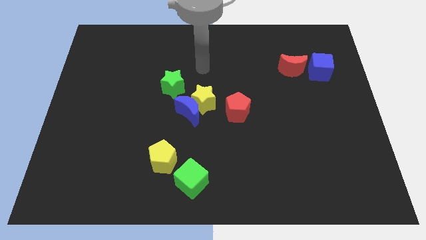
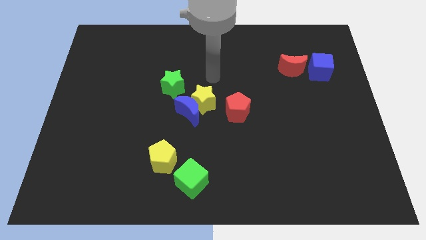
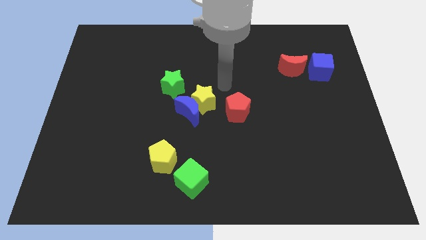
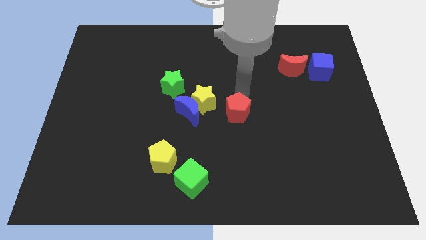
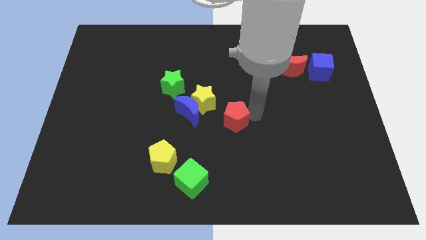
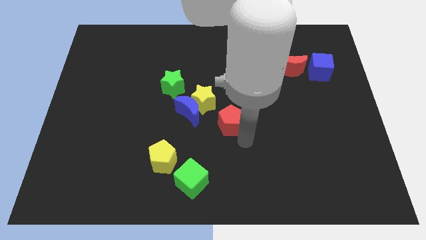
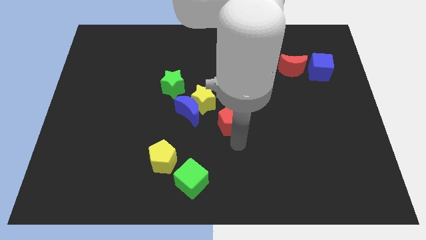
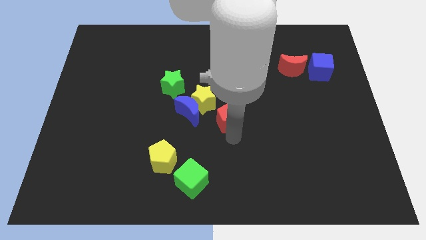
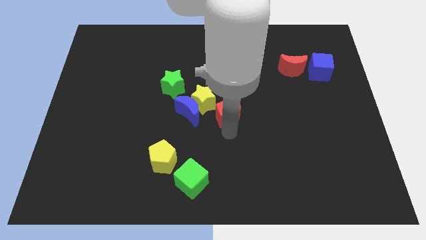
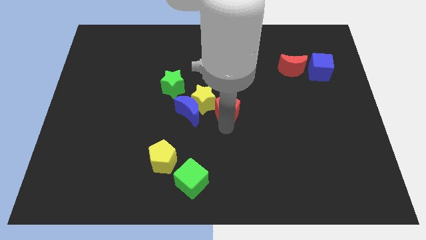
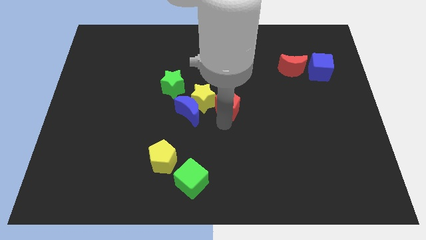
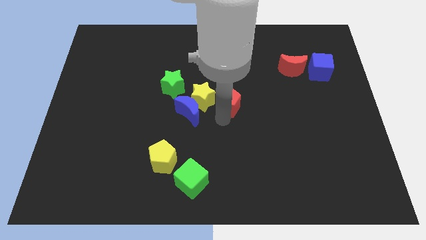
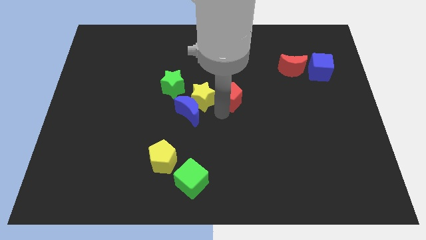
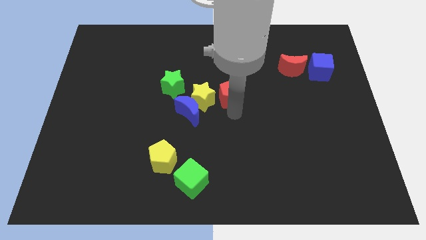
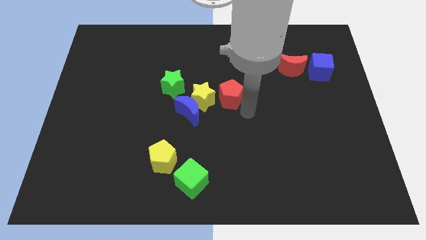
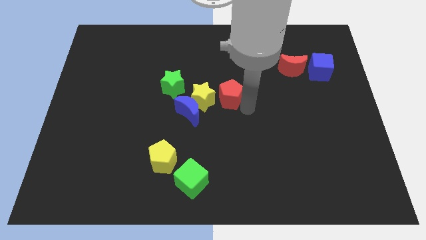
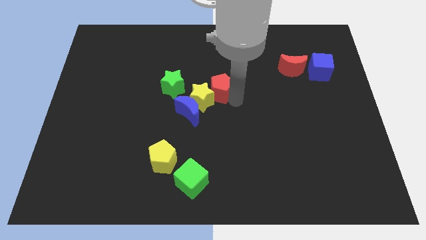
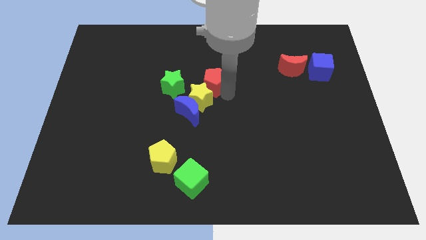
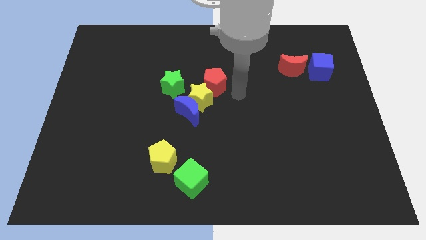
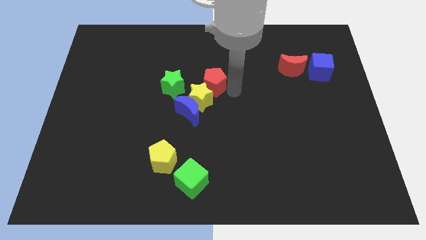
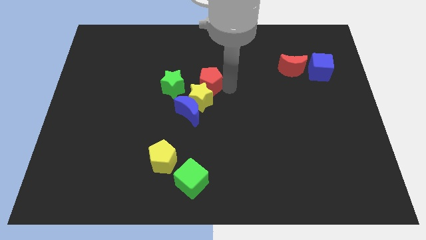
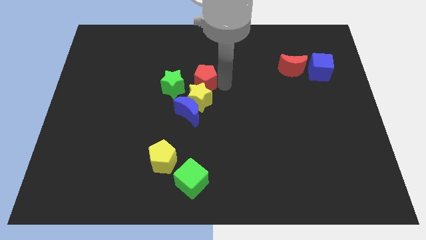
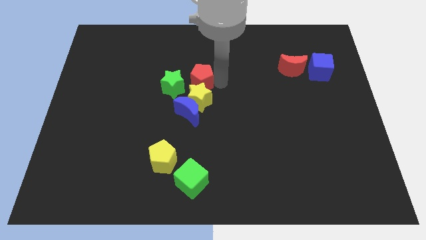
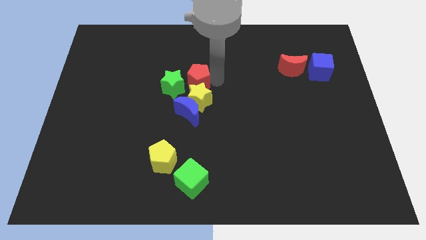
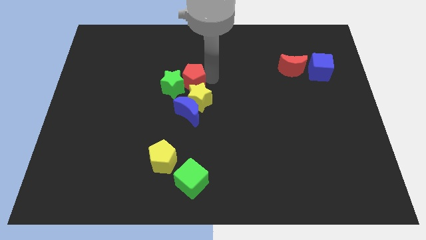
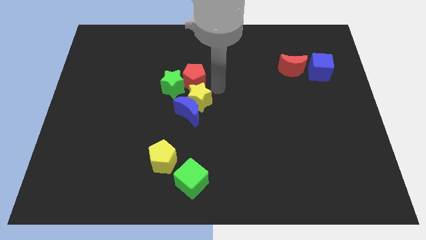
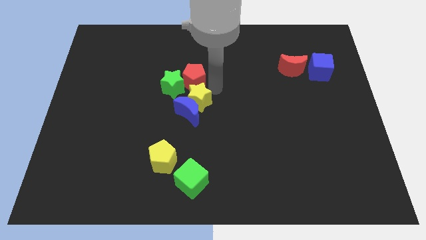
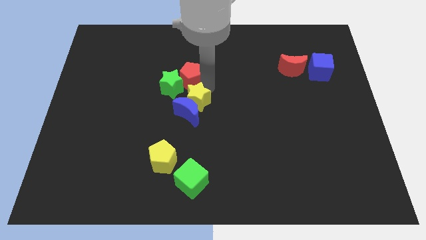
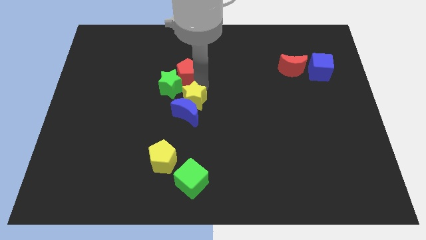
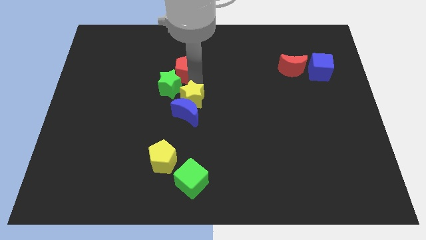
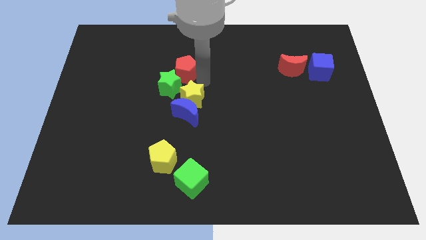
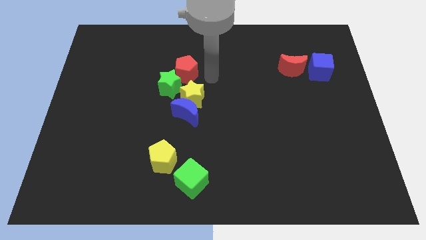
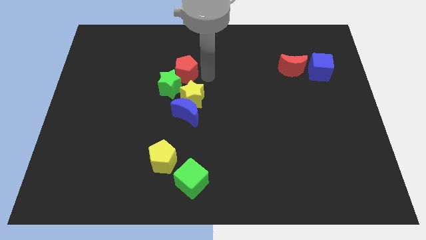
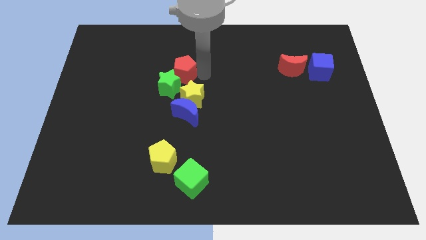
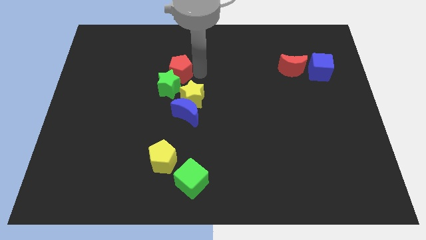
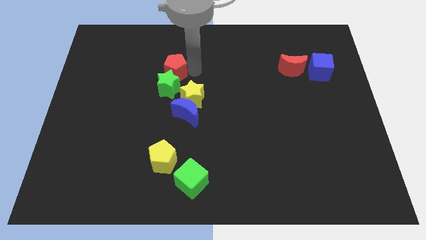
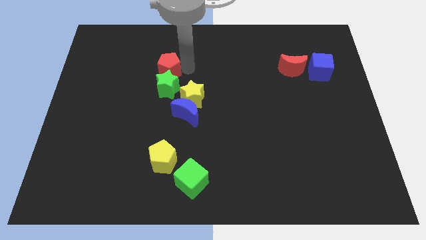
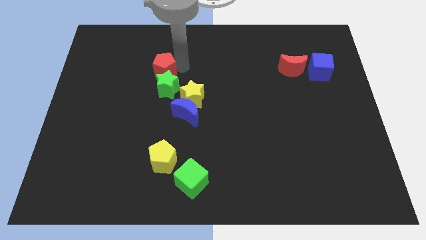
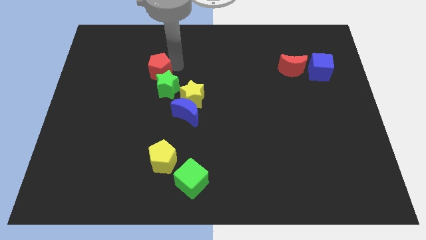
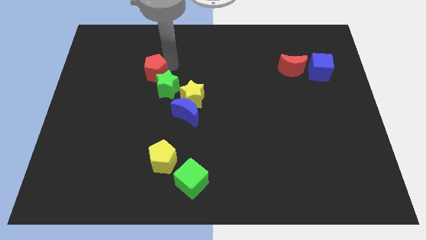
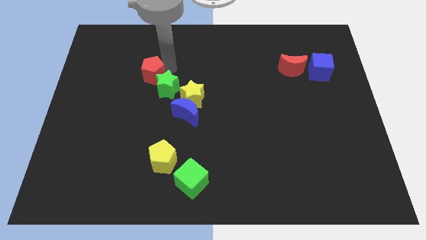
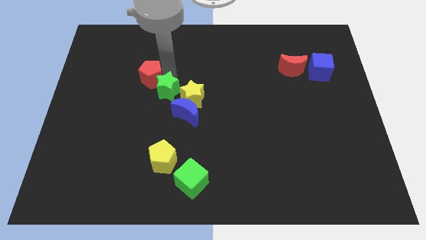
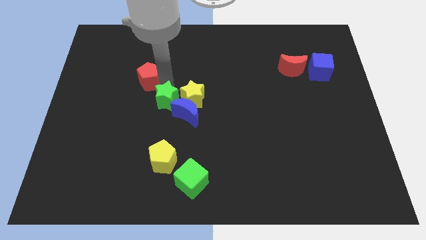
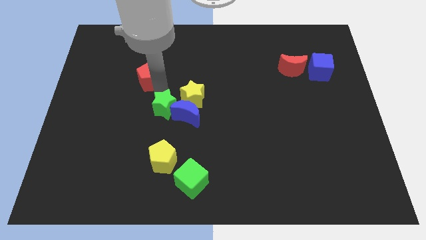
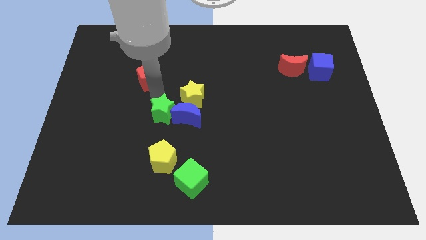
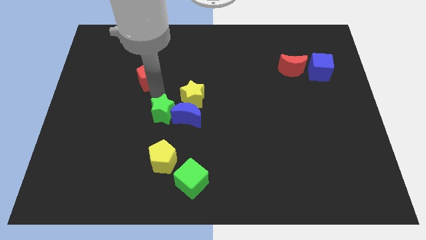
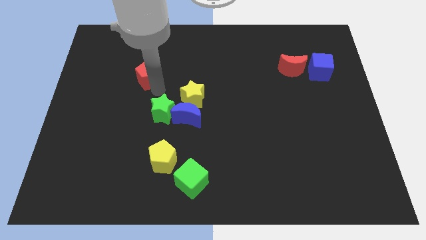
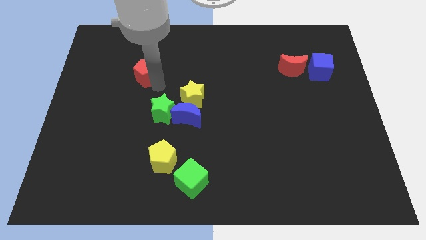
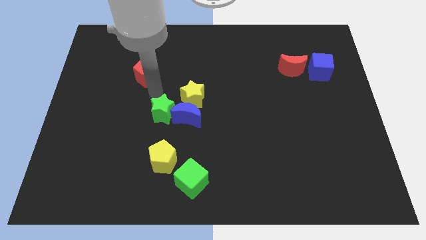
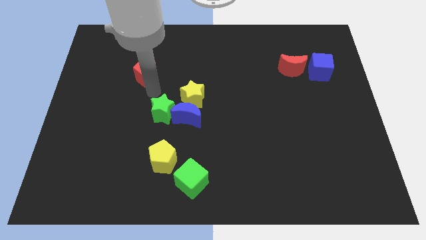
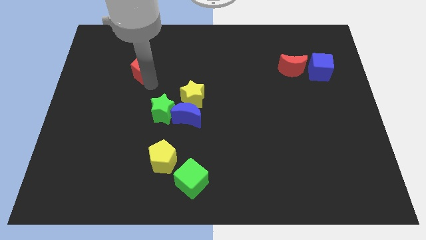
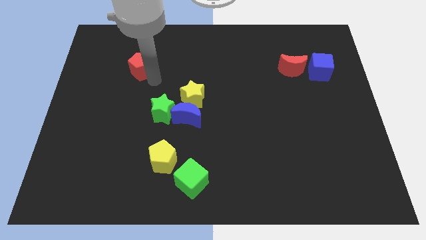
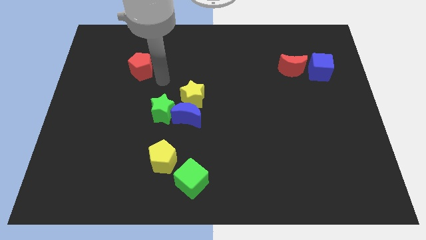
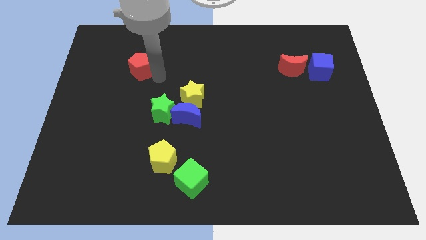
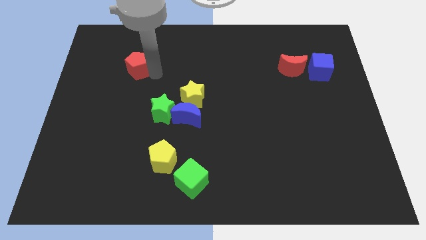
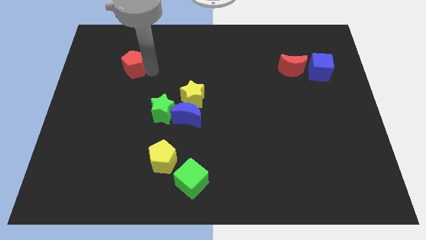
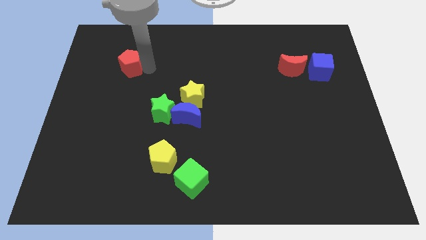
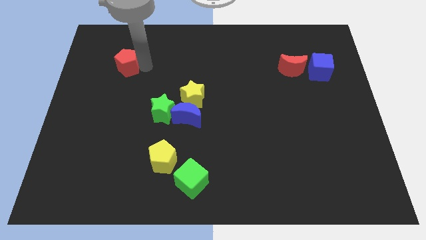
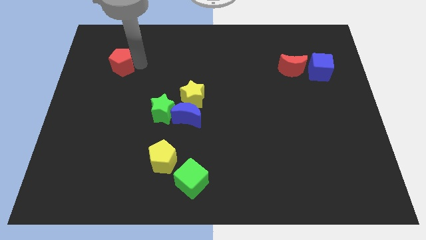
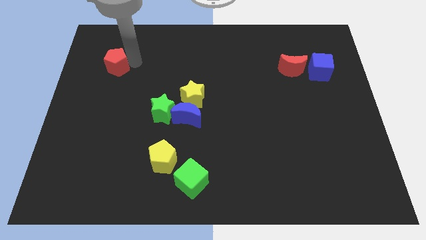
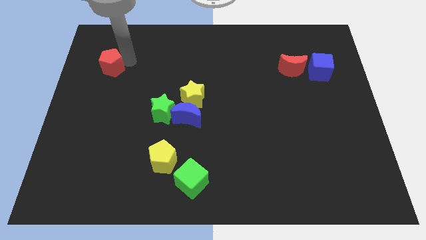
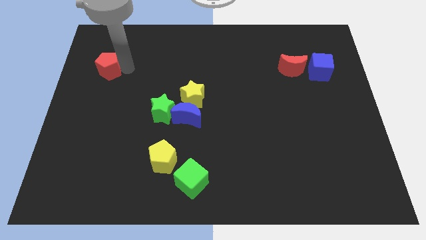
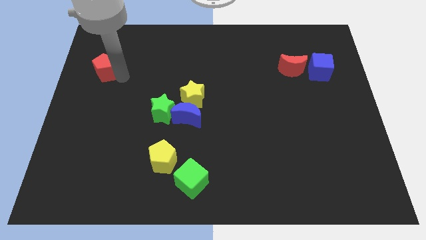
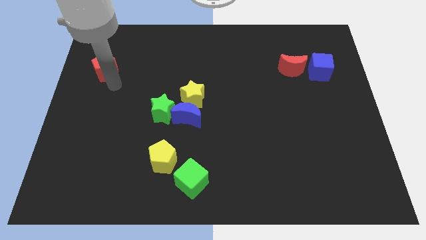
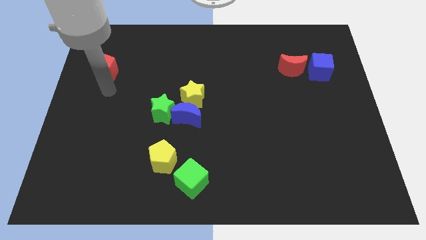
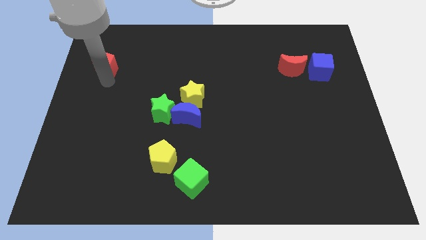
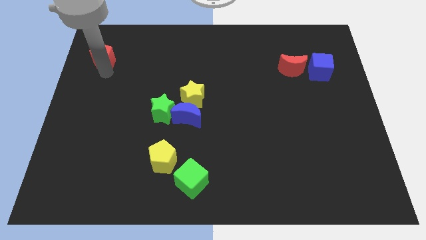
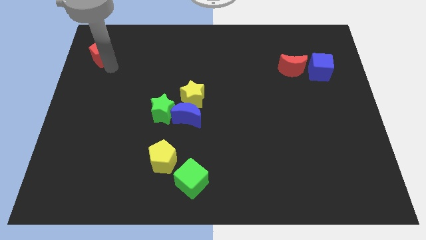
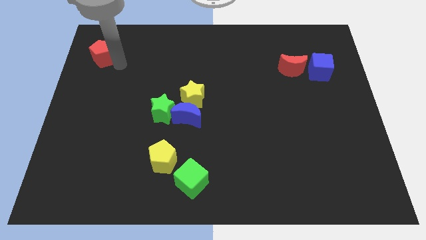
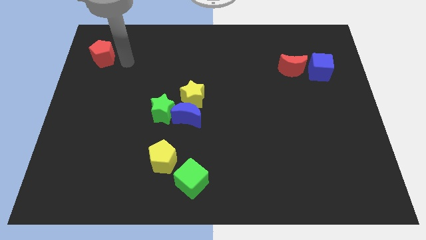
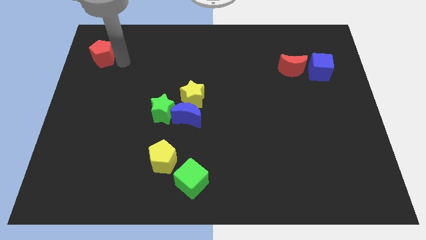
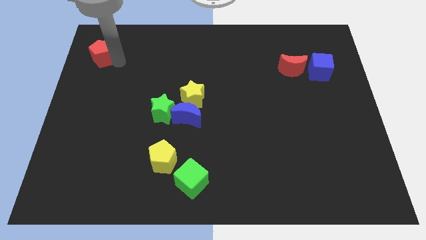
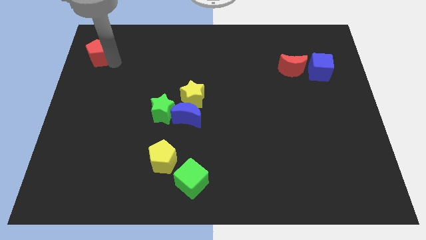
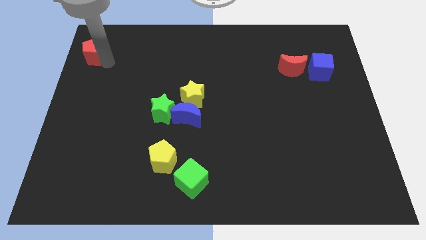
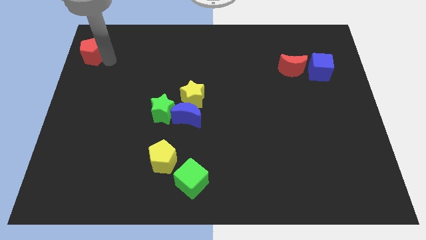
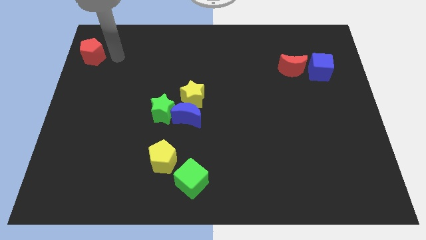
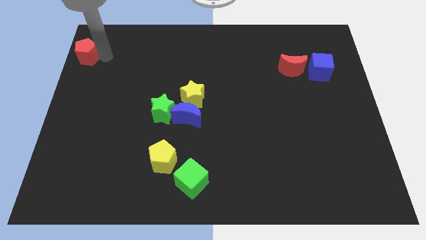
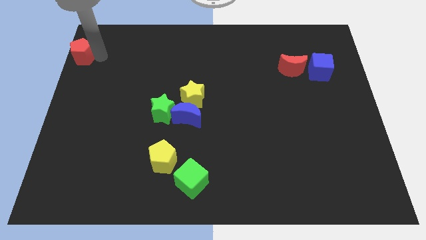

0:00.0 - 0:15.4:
move the red pentagon to the top left

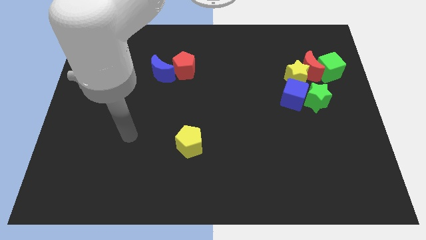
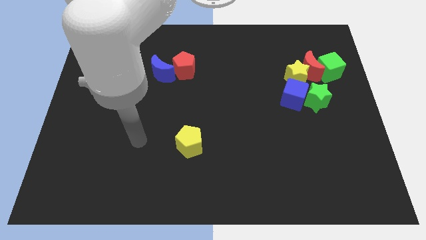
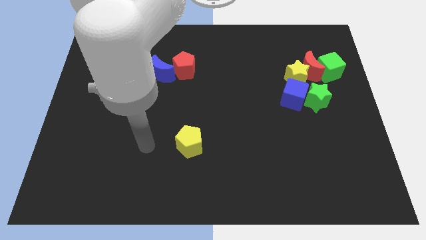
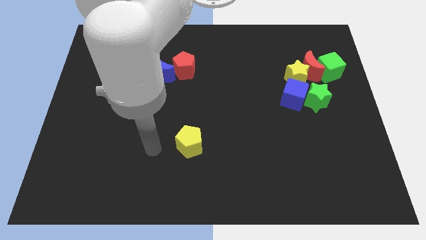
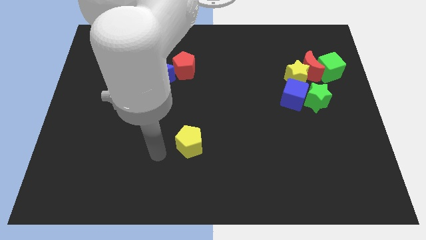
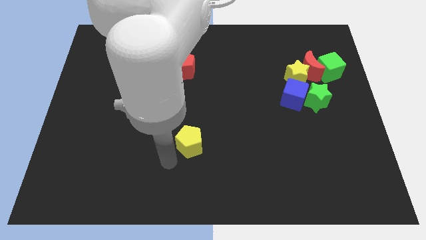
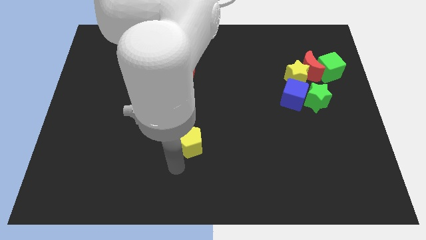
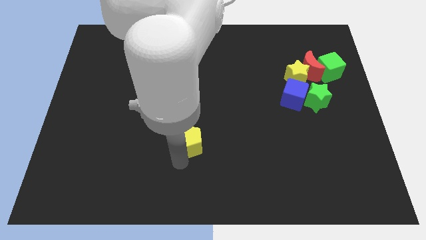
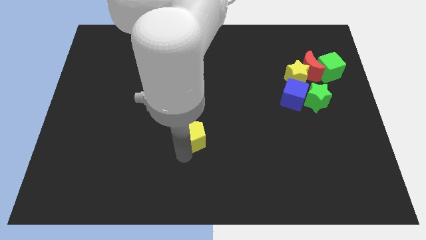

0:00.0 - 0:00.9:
slide the yellow pentagon to the center of the board

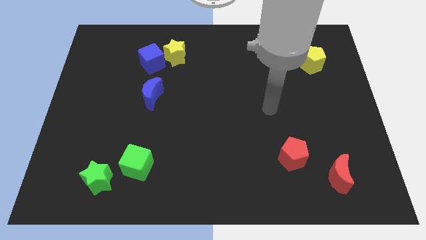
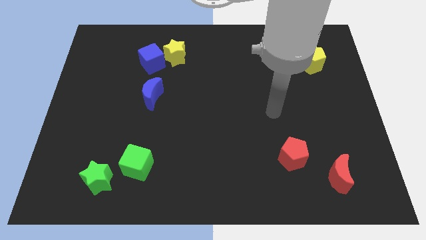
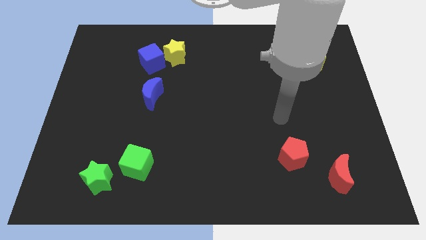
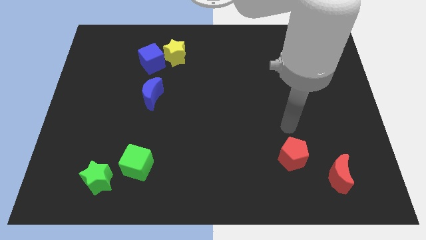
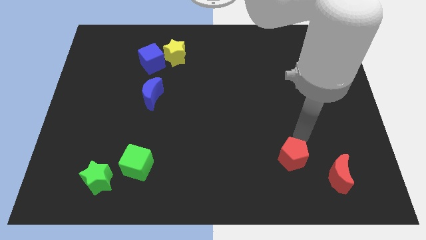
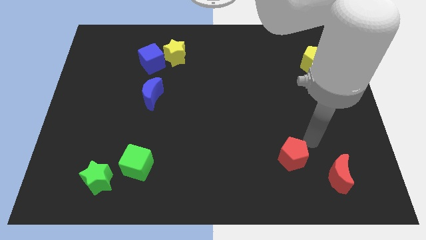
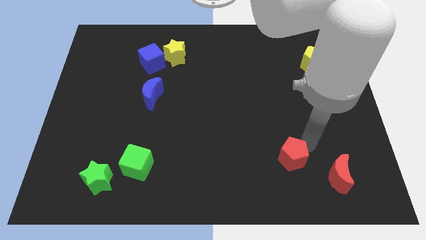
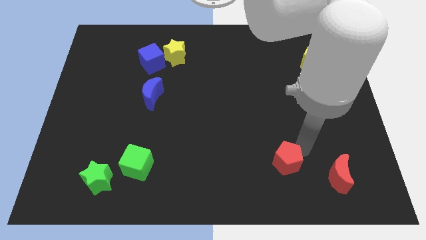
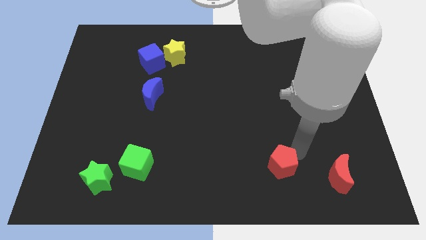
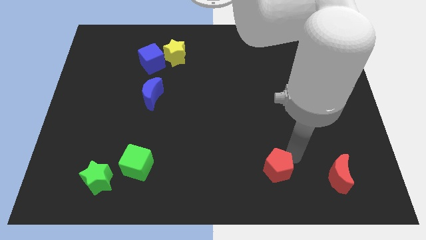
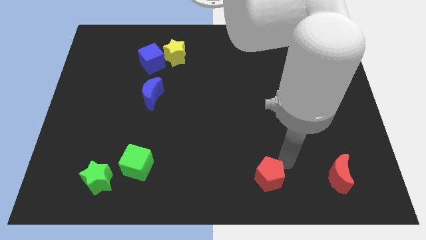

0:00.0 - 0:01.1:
move the red pentagon to the bottom
